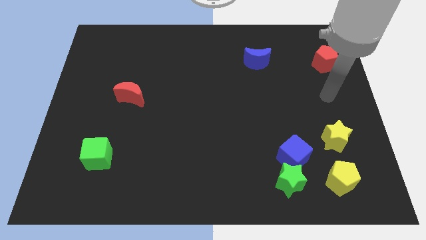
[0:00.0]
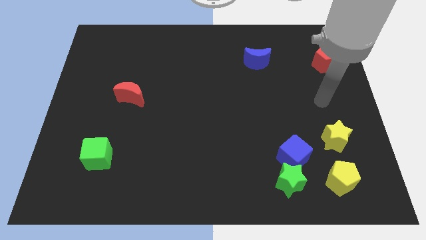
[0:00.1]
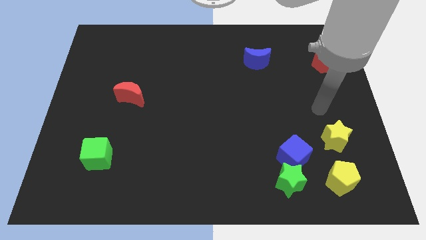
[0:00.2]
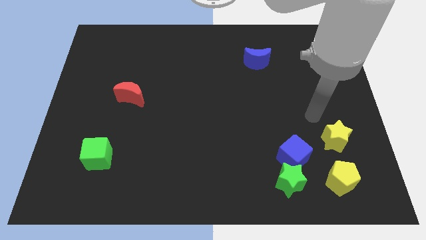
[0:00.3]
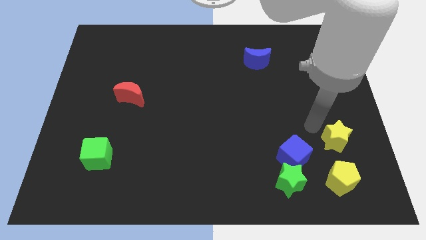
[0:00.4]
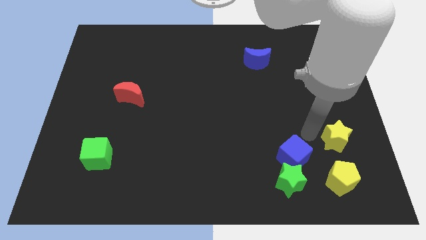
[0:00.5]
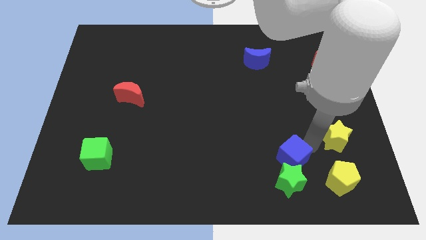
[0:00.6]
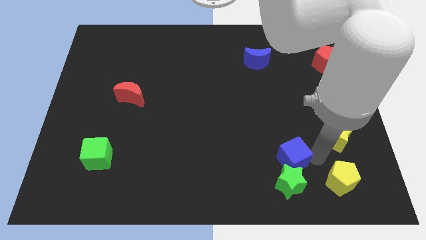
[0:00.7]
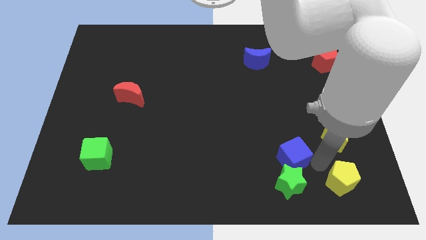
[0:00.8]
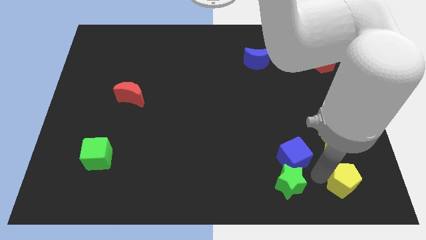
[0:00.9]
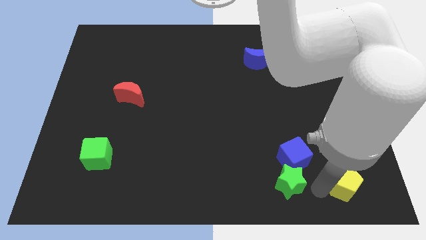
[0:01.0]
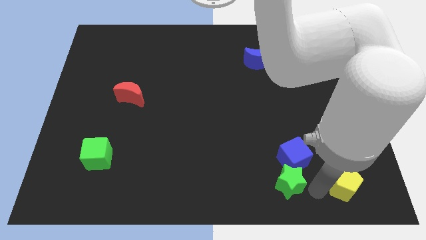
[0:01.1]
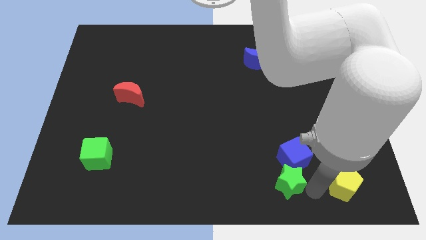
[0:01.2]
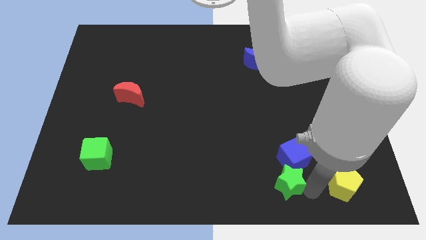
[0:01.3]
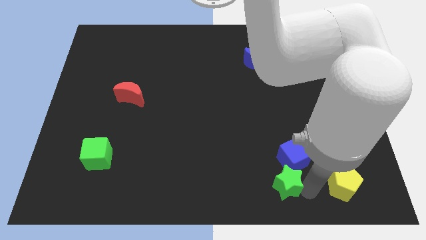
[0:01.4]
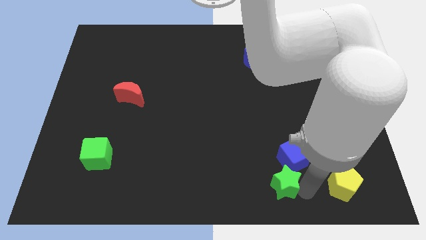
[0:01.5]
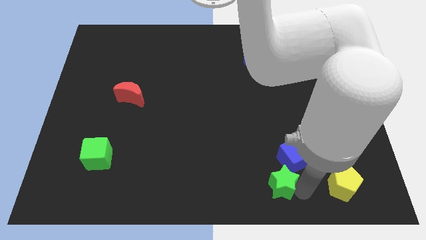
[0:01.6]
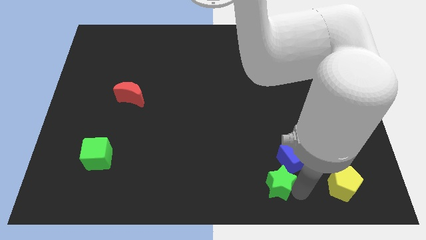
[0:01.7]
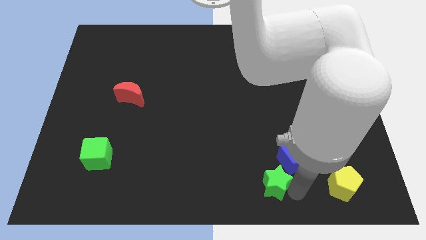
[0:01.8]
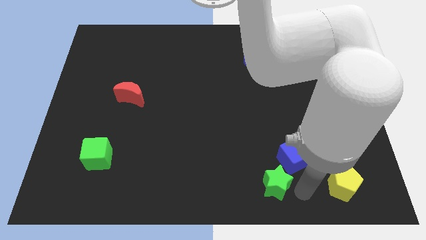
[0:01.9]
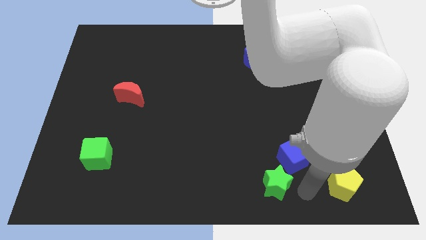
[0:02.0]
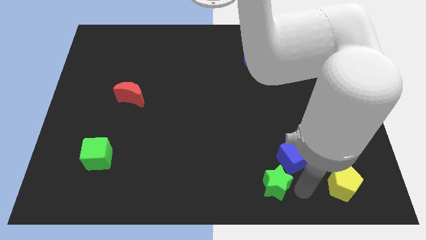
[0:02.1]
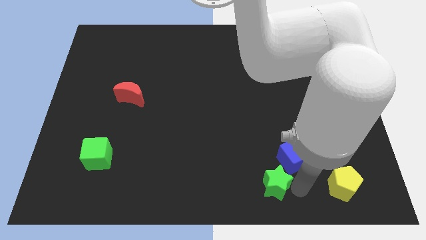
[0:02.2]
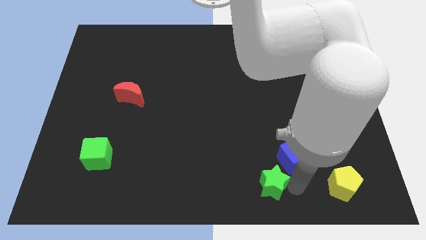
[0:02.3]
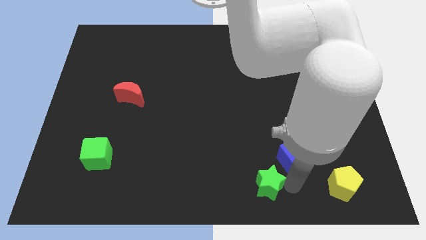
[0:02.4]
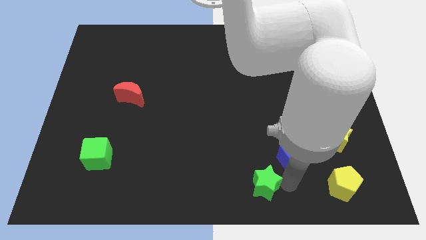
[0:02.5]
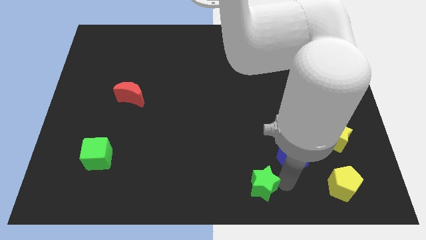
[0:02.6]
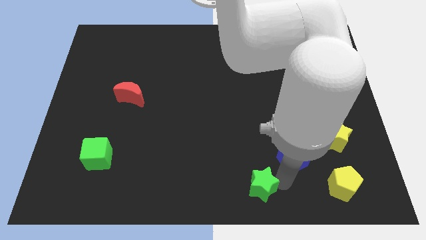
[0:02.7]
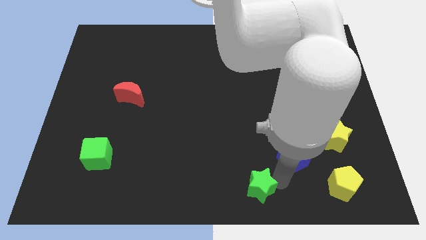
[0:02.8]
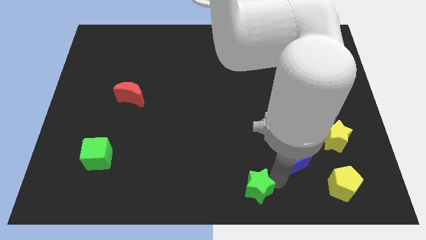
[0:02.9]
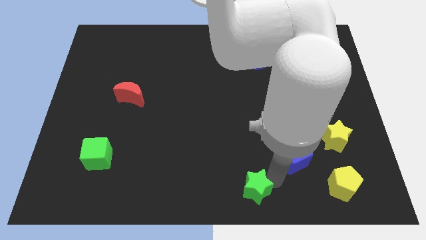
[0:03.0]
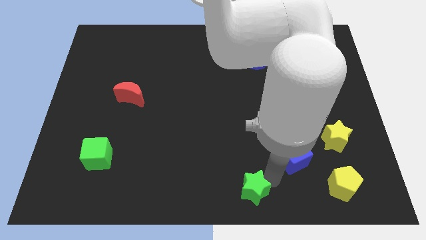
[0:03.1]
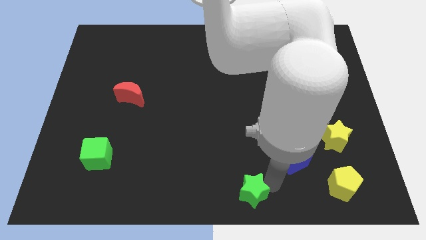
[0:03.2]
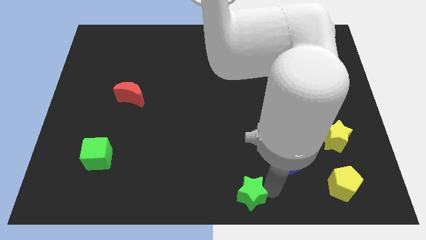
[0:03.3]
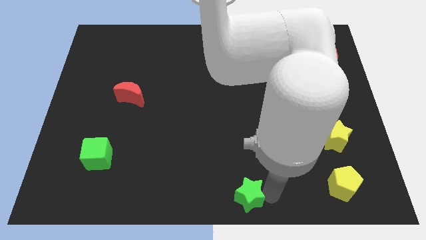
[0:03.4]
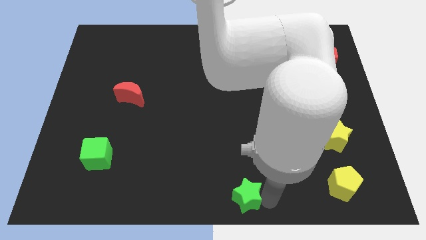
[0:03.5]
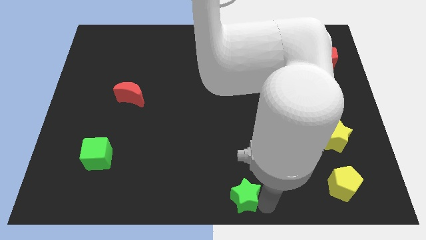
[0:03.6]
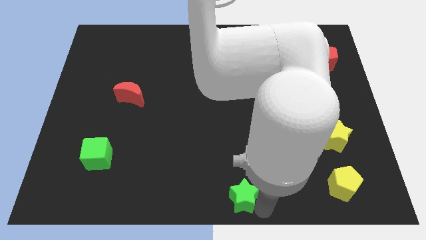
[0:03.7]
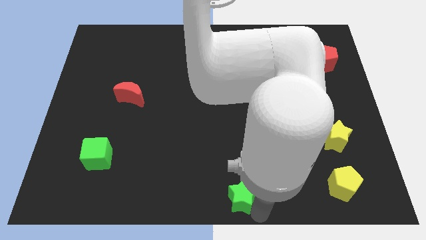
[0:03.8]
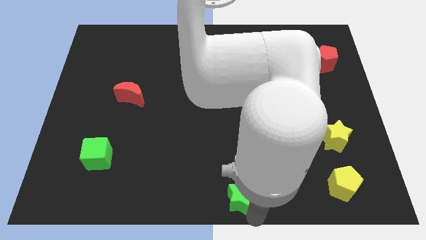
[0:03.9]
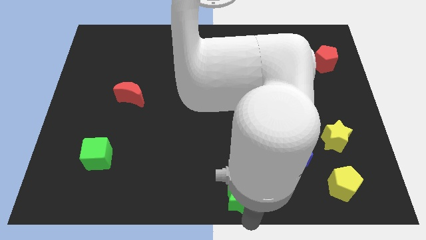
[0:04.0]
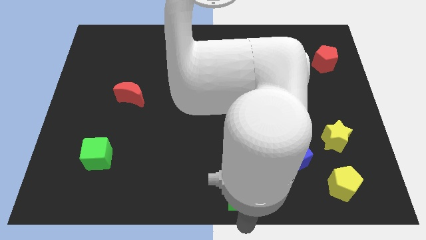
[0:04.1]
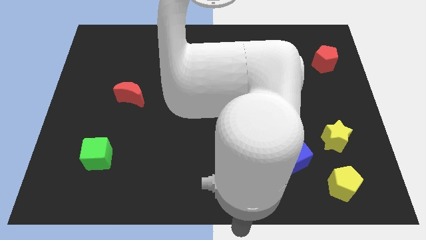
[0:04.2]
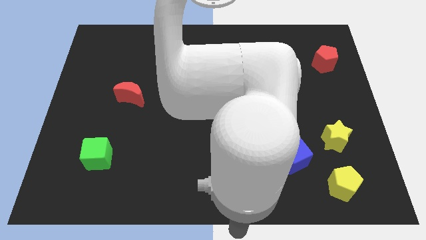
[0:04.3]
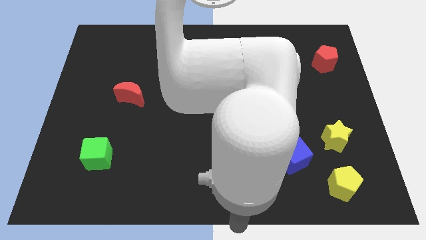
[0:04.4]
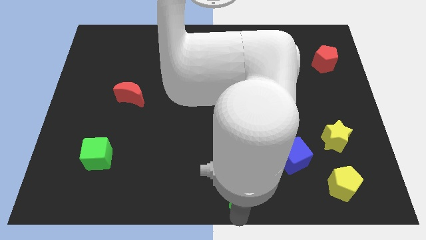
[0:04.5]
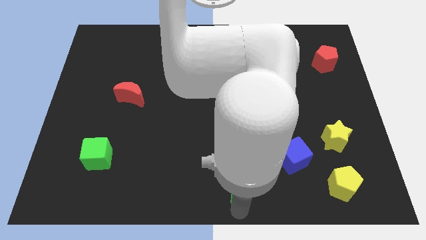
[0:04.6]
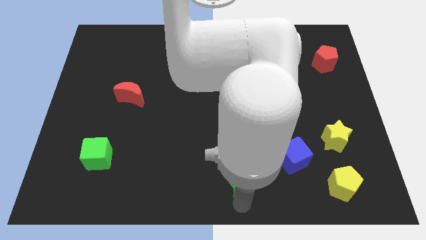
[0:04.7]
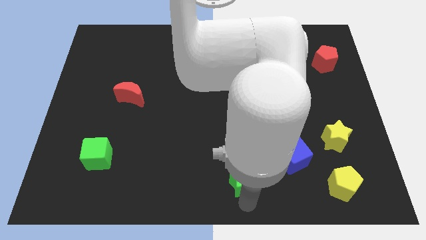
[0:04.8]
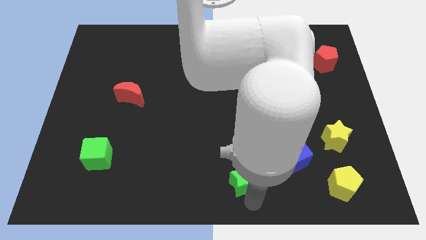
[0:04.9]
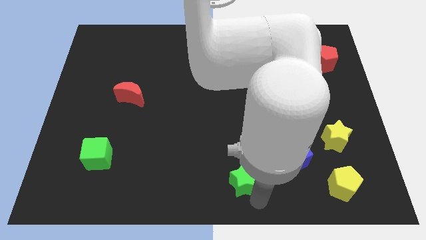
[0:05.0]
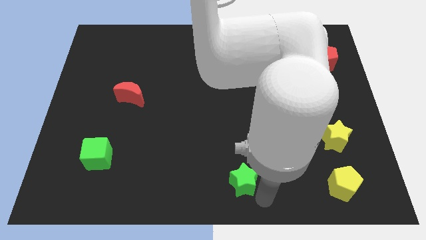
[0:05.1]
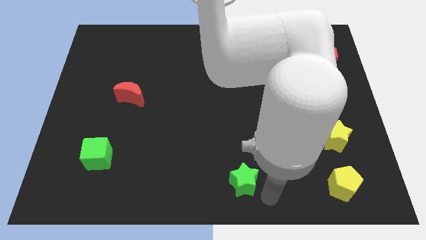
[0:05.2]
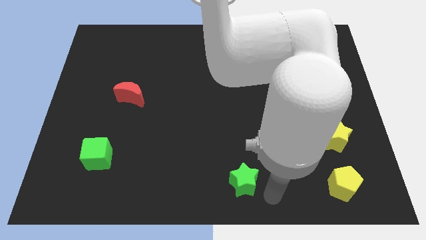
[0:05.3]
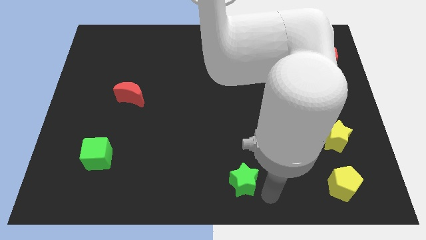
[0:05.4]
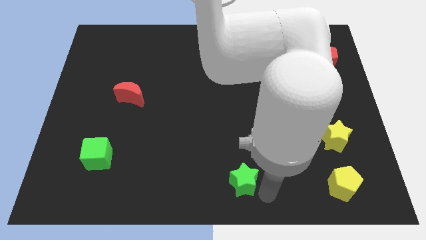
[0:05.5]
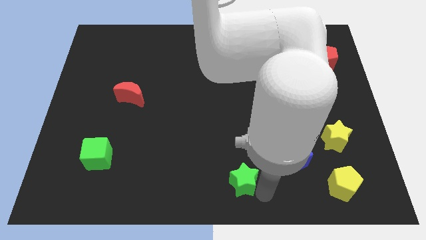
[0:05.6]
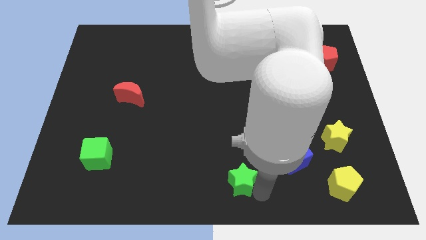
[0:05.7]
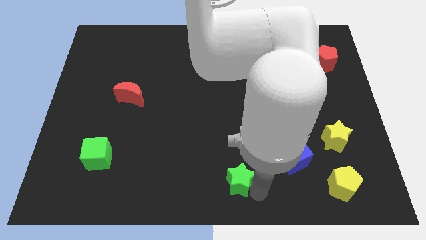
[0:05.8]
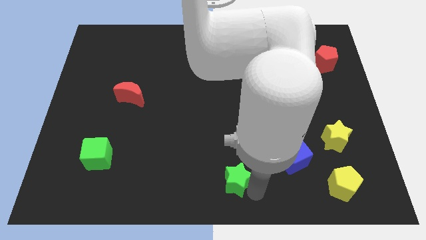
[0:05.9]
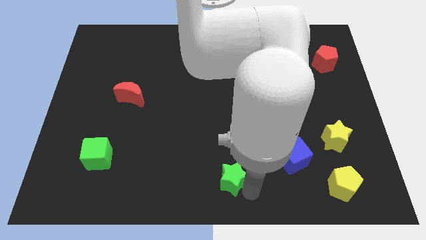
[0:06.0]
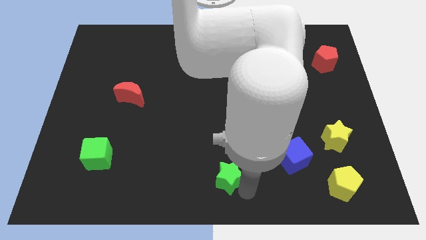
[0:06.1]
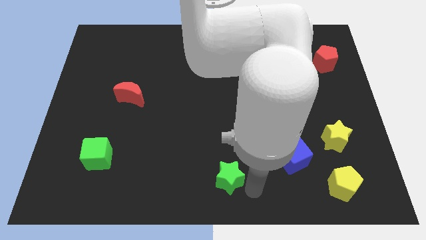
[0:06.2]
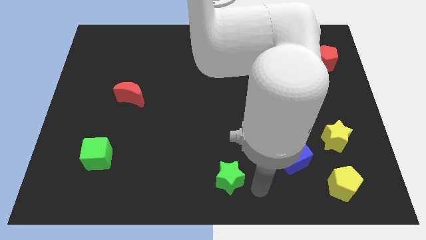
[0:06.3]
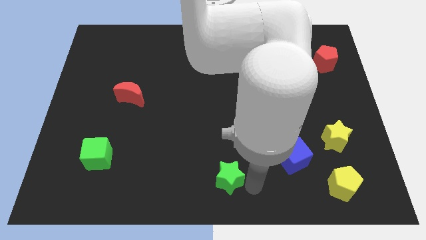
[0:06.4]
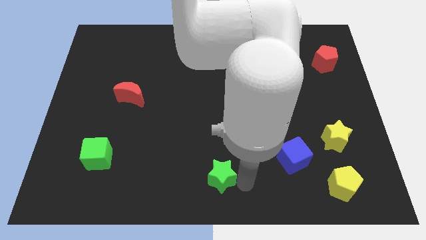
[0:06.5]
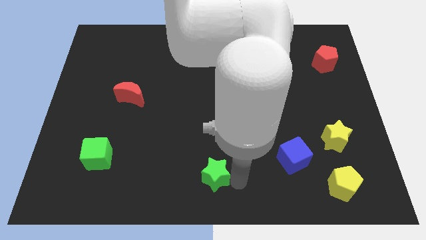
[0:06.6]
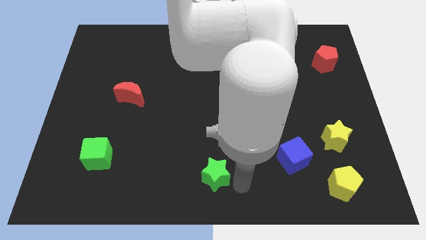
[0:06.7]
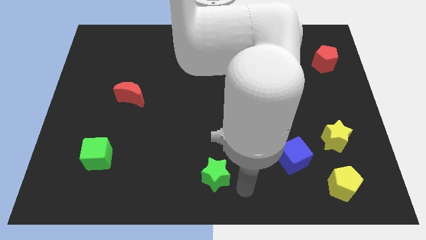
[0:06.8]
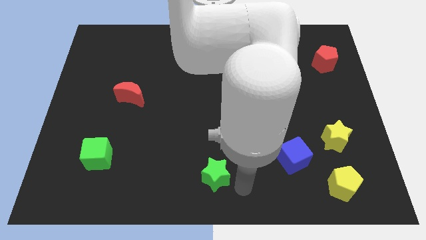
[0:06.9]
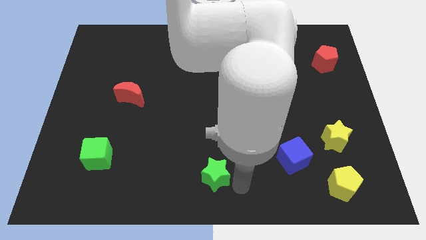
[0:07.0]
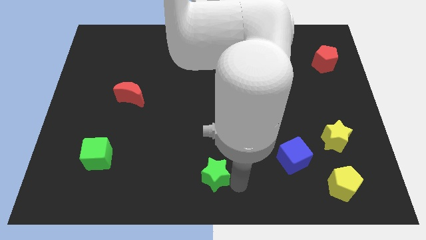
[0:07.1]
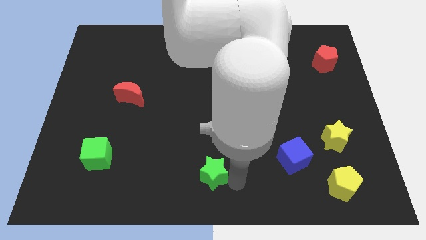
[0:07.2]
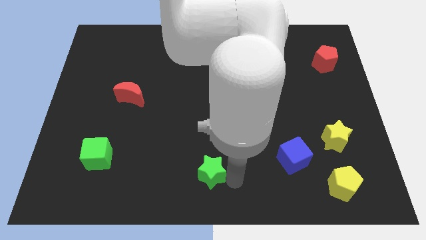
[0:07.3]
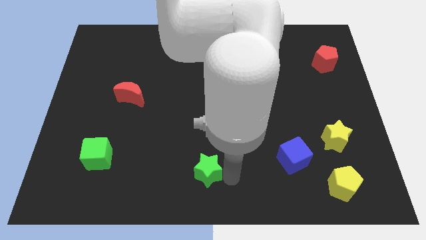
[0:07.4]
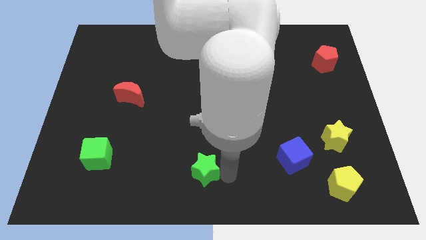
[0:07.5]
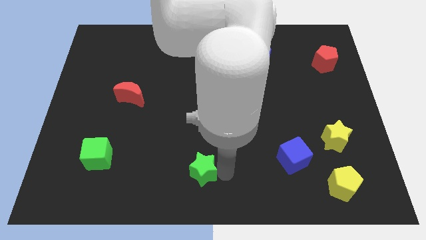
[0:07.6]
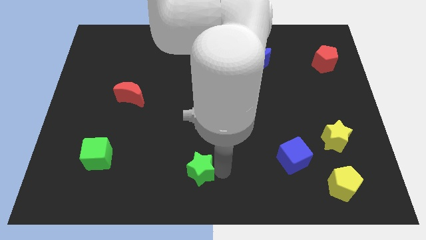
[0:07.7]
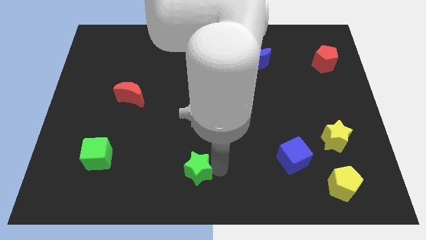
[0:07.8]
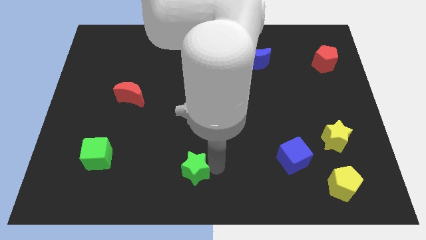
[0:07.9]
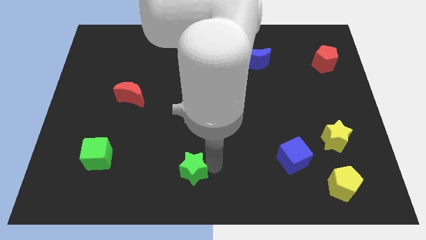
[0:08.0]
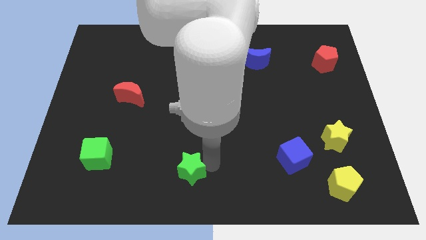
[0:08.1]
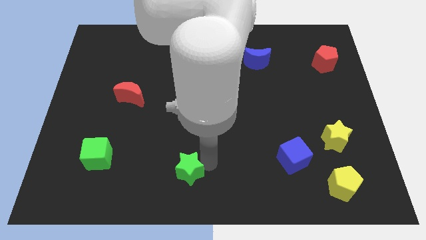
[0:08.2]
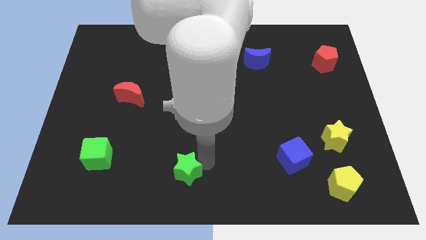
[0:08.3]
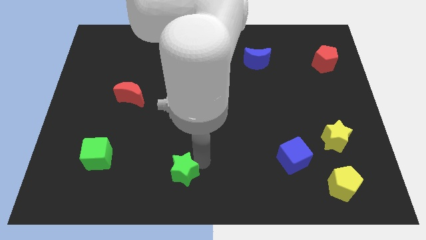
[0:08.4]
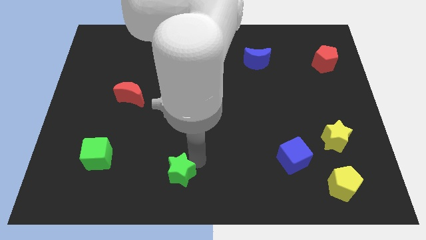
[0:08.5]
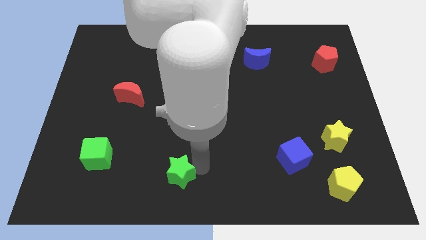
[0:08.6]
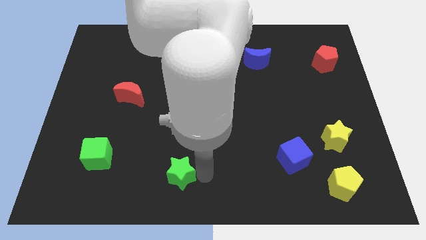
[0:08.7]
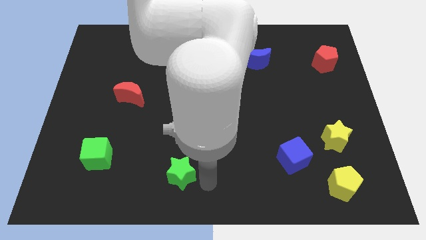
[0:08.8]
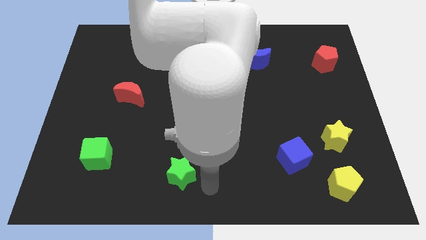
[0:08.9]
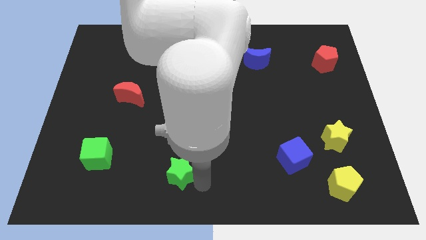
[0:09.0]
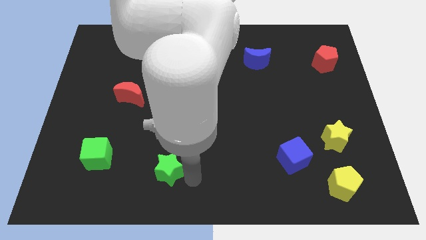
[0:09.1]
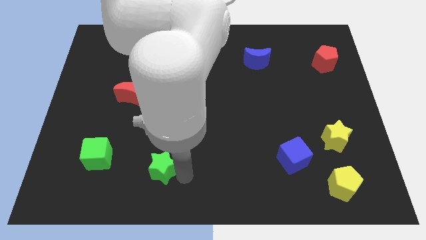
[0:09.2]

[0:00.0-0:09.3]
push the green star right of the green cube
